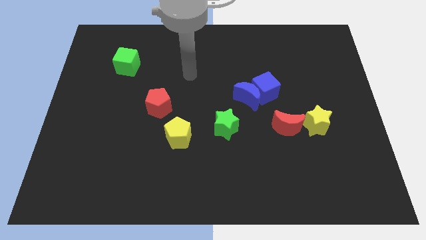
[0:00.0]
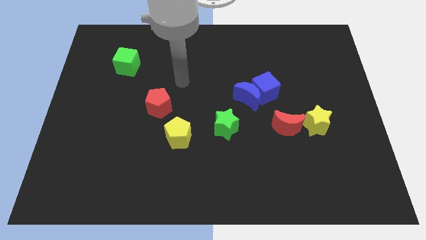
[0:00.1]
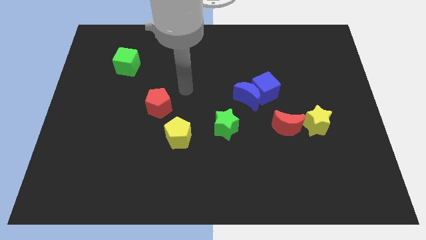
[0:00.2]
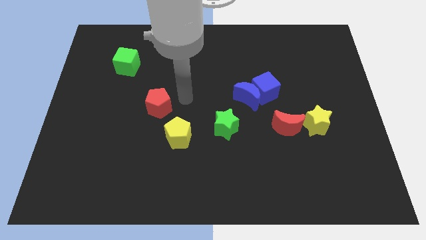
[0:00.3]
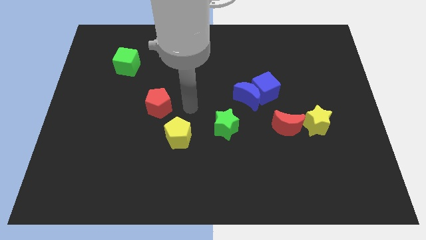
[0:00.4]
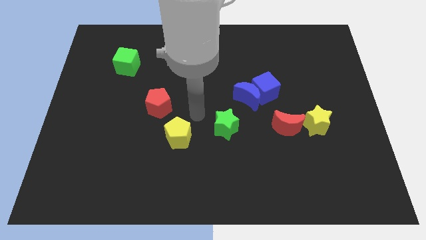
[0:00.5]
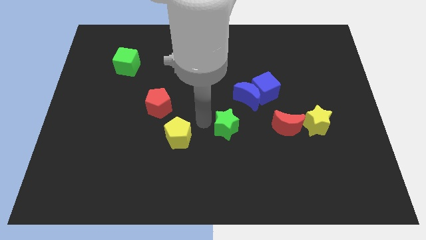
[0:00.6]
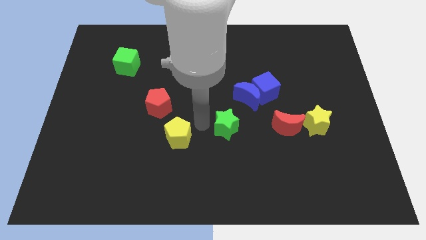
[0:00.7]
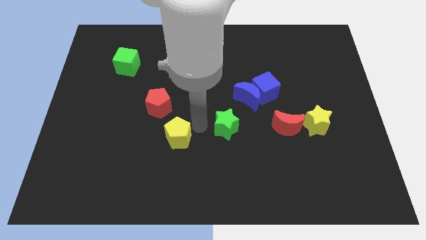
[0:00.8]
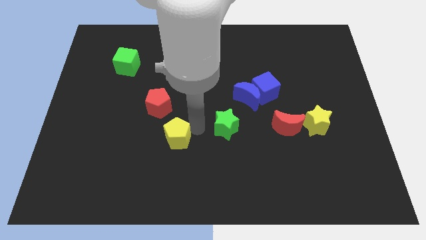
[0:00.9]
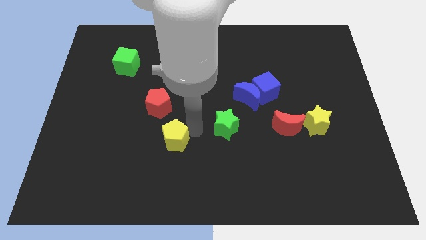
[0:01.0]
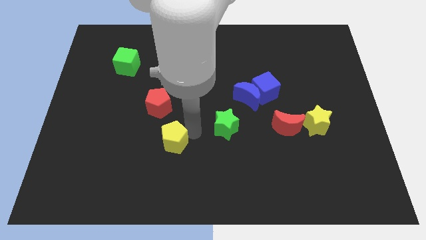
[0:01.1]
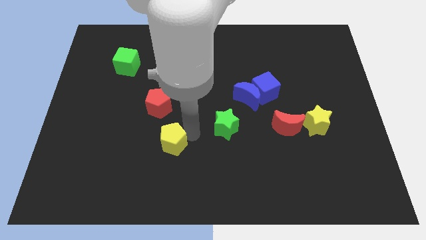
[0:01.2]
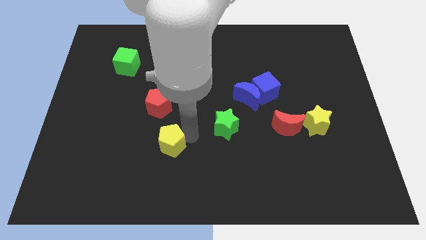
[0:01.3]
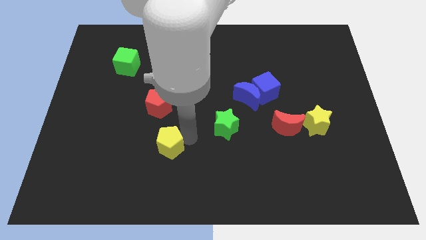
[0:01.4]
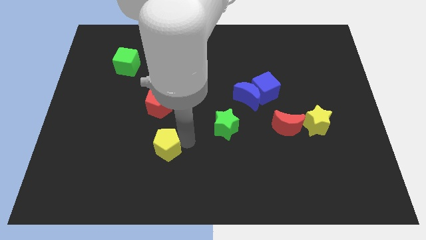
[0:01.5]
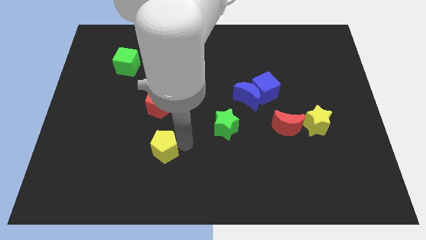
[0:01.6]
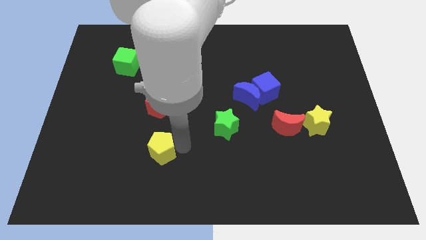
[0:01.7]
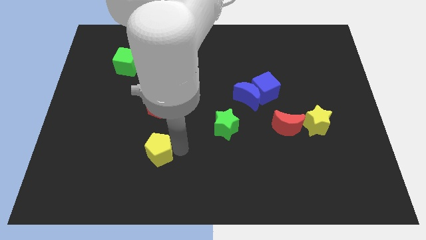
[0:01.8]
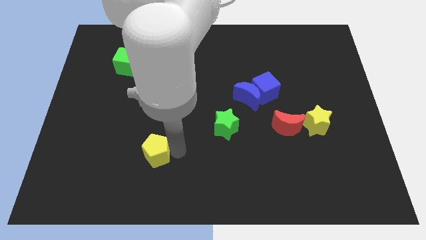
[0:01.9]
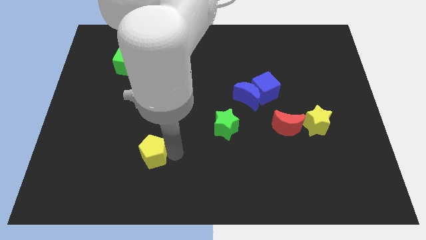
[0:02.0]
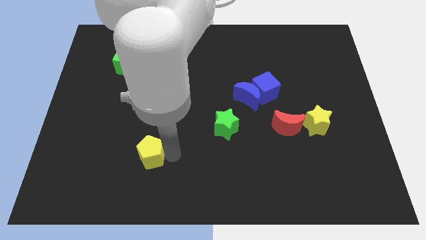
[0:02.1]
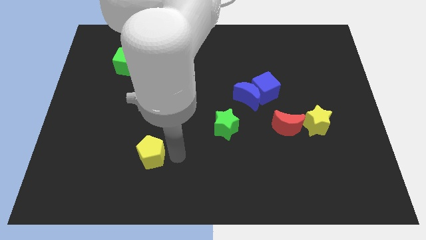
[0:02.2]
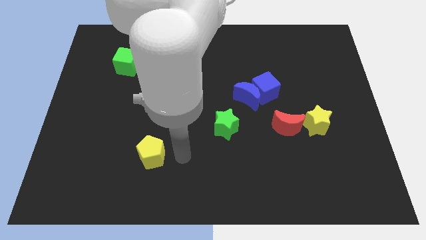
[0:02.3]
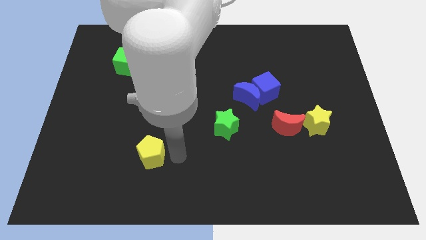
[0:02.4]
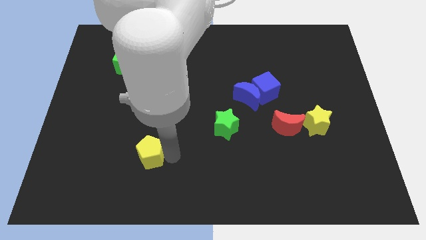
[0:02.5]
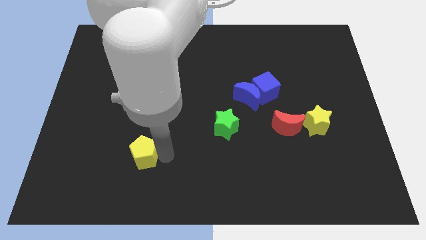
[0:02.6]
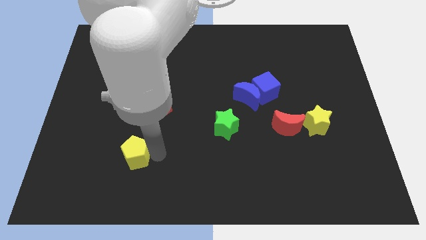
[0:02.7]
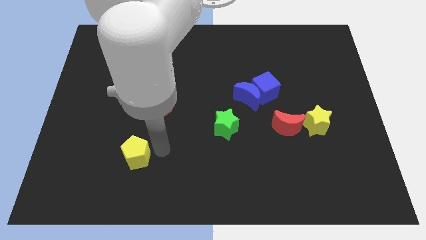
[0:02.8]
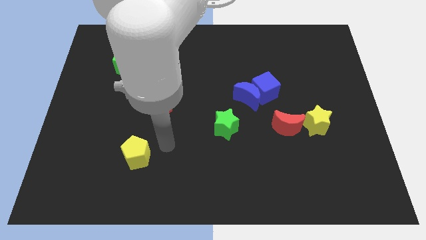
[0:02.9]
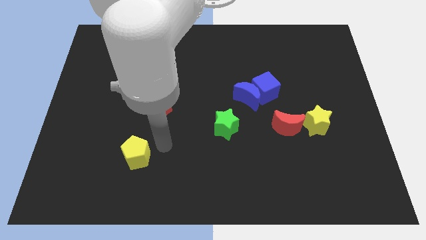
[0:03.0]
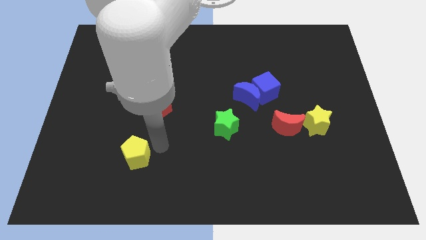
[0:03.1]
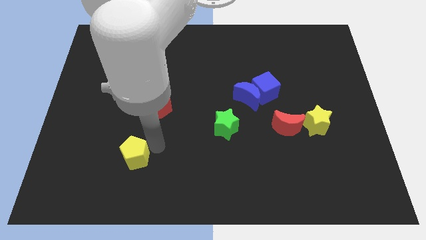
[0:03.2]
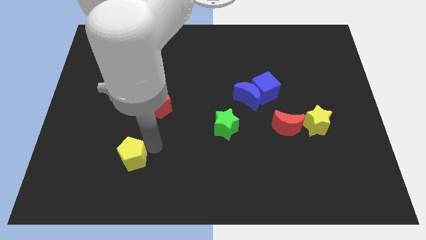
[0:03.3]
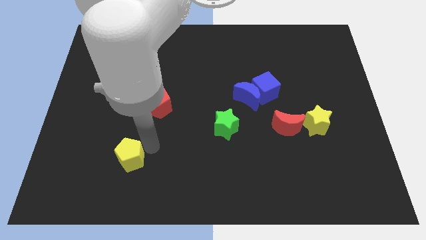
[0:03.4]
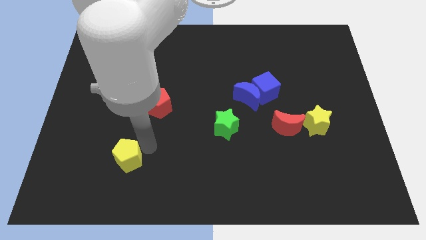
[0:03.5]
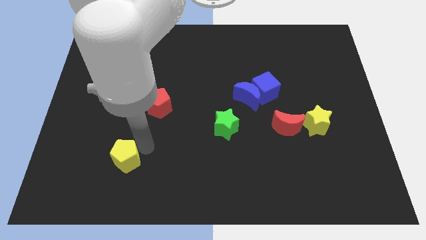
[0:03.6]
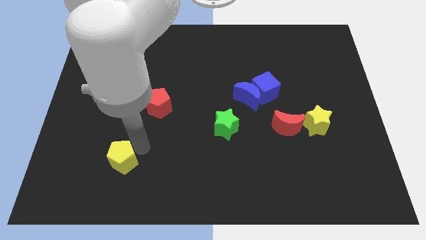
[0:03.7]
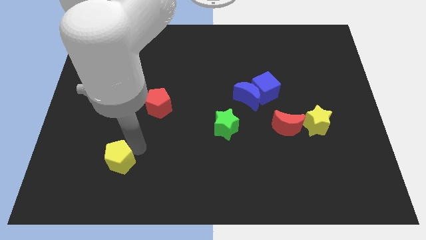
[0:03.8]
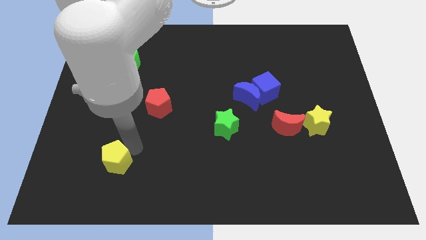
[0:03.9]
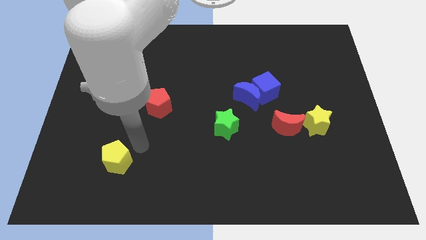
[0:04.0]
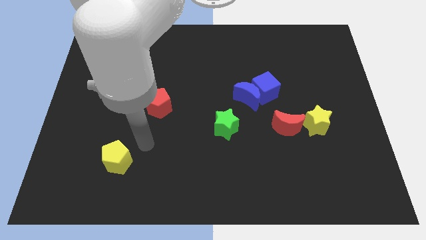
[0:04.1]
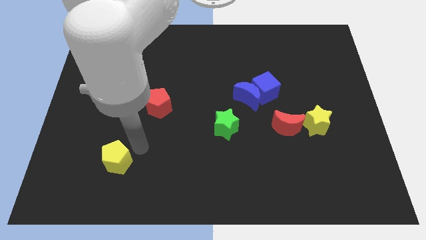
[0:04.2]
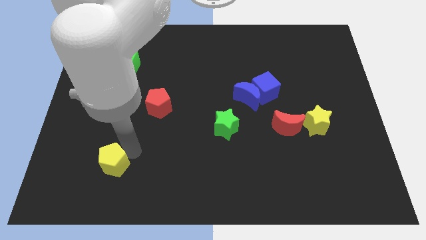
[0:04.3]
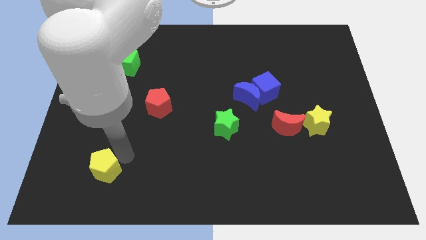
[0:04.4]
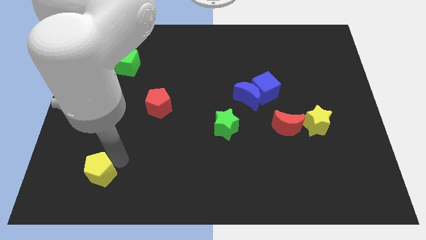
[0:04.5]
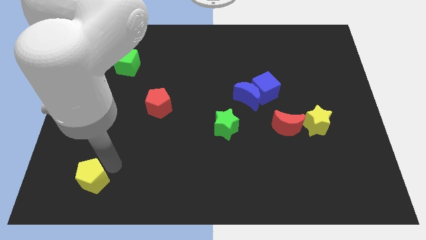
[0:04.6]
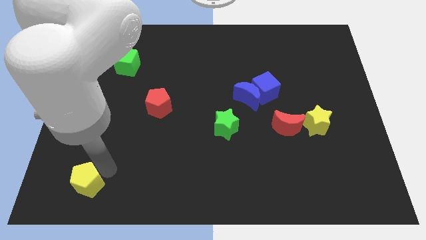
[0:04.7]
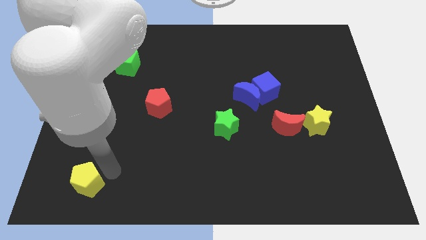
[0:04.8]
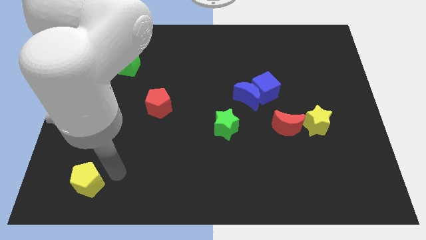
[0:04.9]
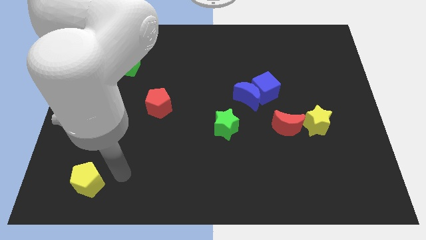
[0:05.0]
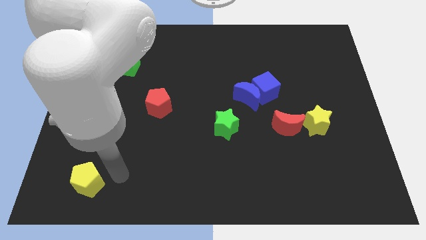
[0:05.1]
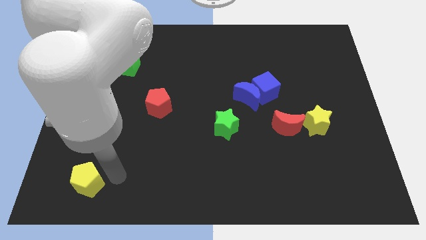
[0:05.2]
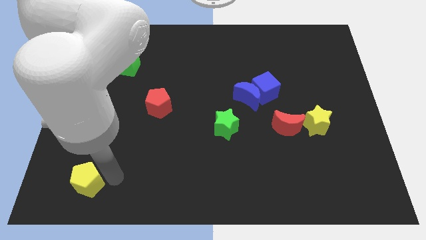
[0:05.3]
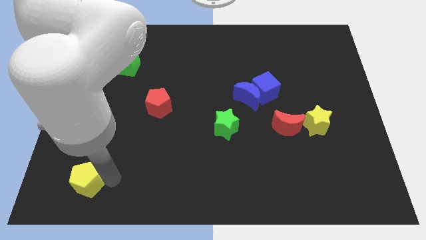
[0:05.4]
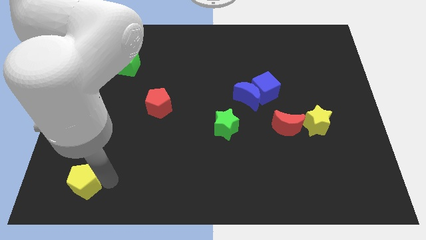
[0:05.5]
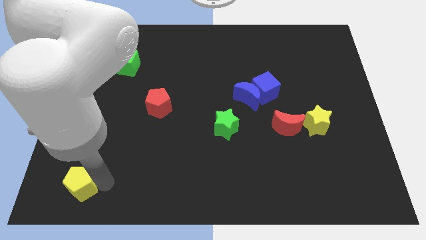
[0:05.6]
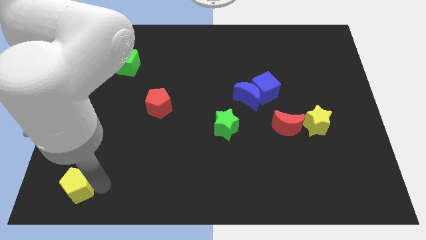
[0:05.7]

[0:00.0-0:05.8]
slide the yellow pentagon to the bottom left
